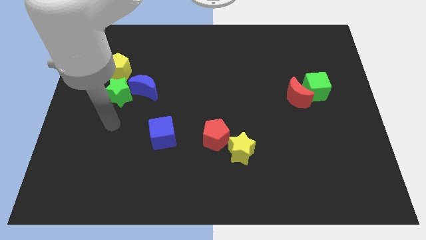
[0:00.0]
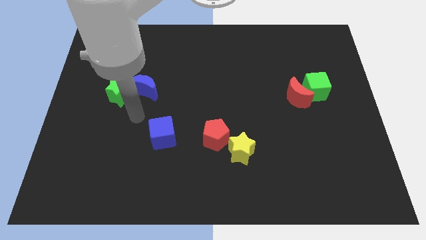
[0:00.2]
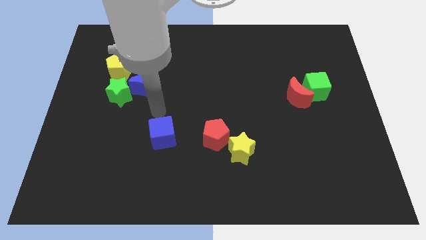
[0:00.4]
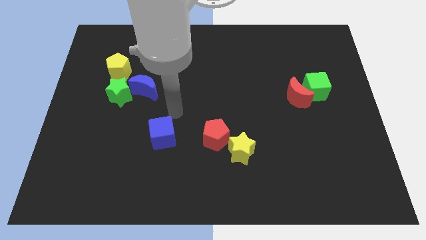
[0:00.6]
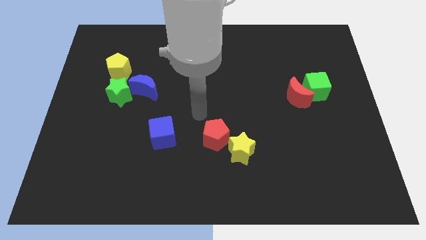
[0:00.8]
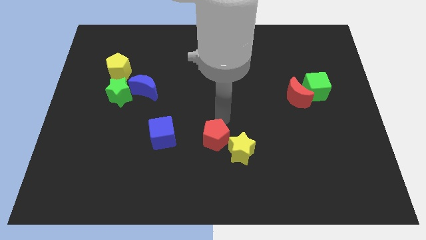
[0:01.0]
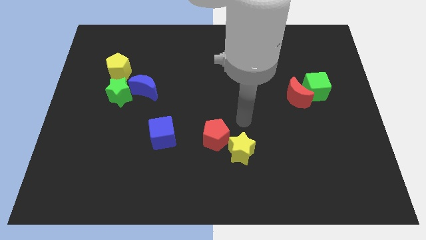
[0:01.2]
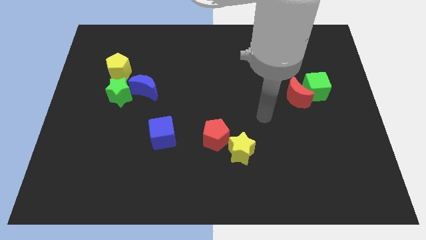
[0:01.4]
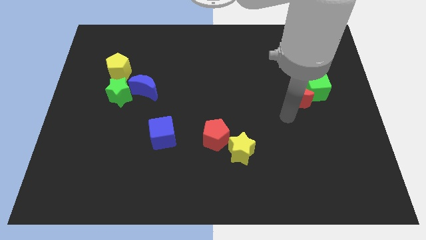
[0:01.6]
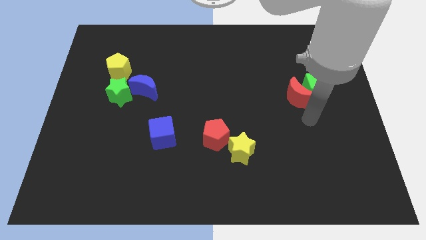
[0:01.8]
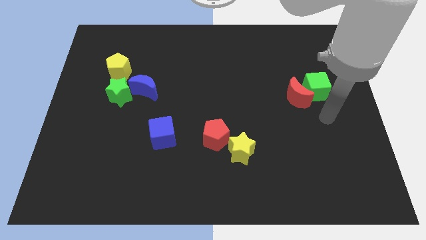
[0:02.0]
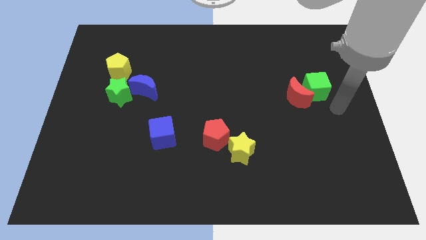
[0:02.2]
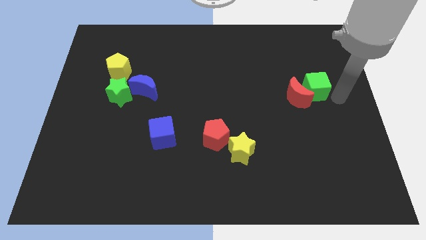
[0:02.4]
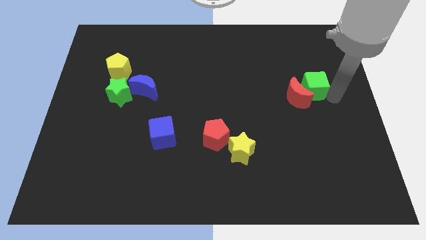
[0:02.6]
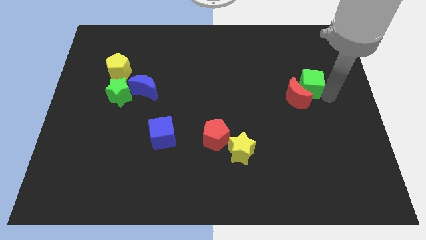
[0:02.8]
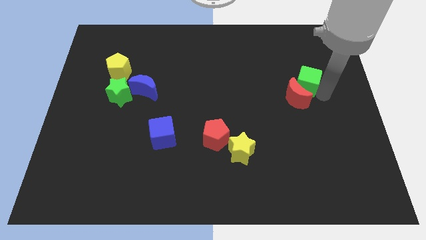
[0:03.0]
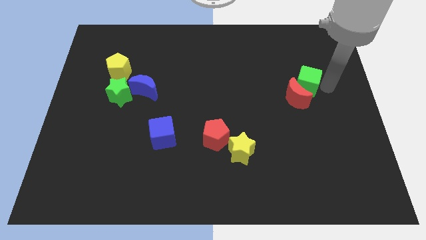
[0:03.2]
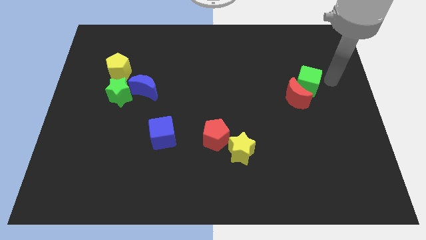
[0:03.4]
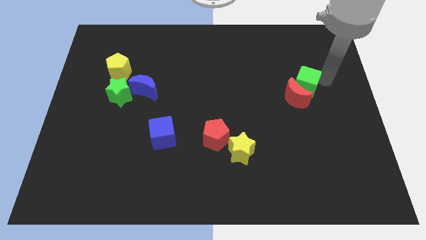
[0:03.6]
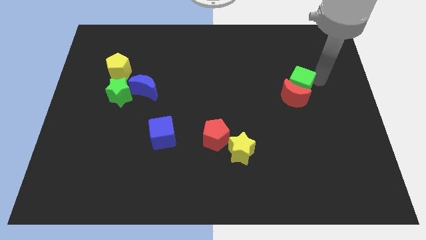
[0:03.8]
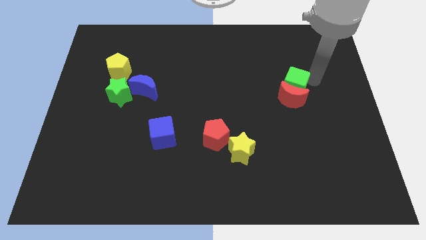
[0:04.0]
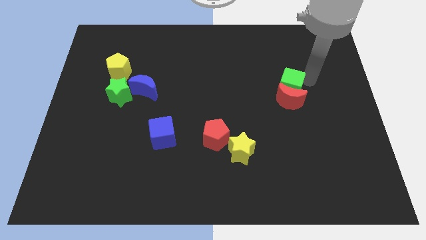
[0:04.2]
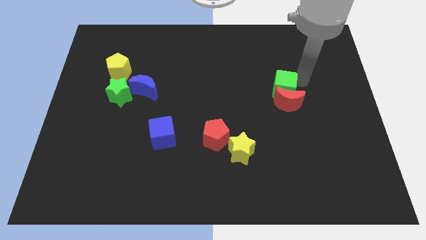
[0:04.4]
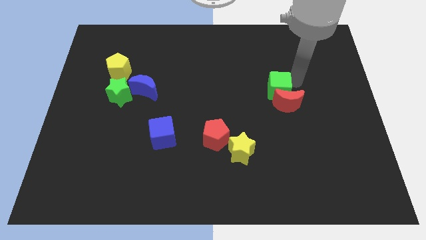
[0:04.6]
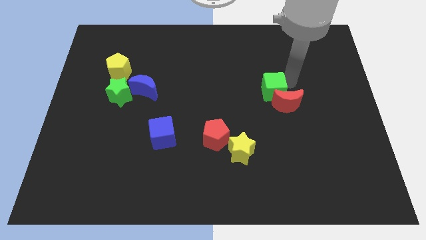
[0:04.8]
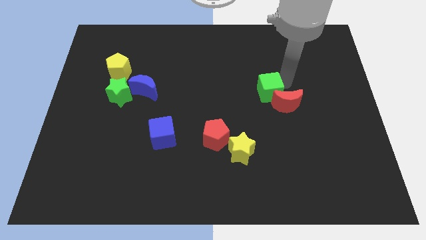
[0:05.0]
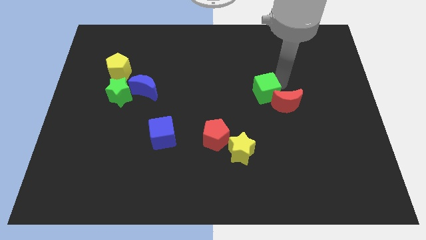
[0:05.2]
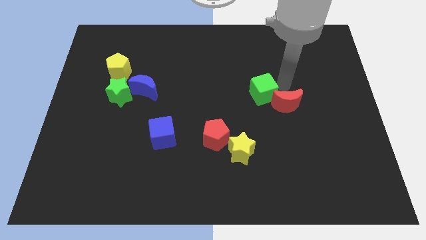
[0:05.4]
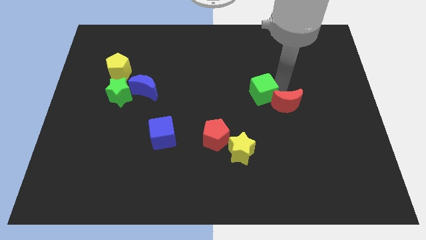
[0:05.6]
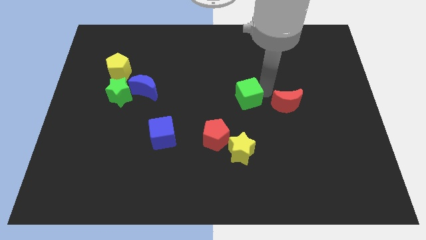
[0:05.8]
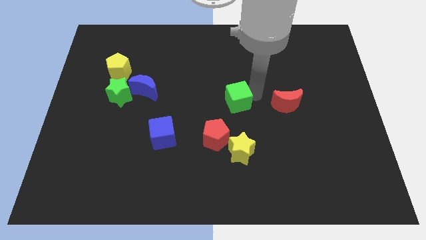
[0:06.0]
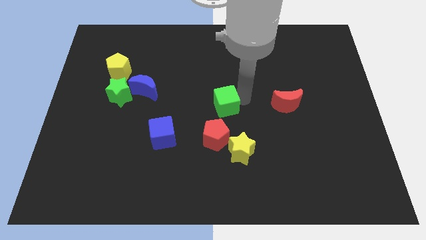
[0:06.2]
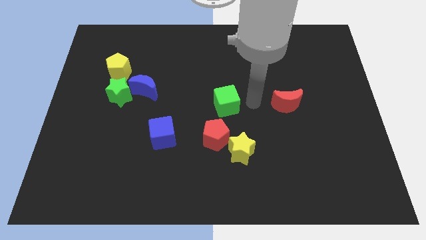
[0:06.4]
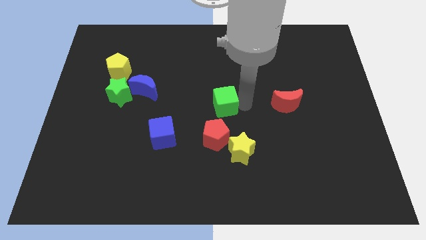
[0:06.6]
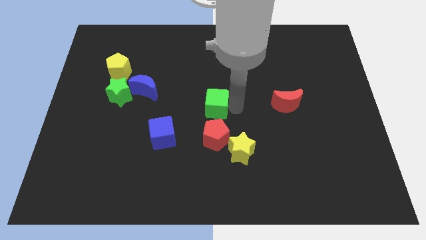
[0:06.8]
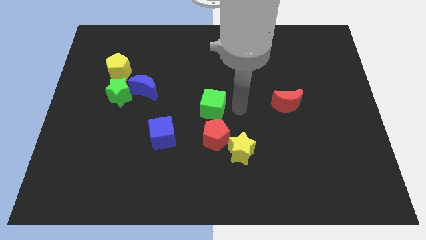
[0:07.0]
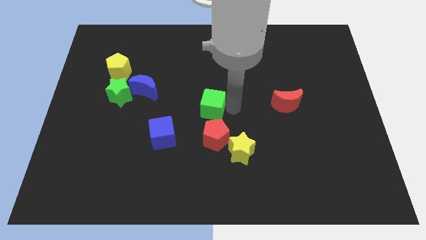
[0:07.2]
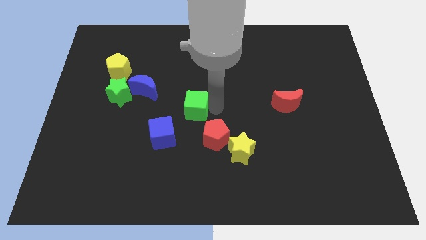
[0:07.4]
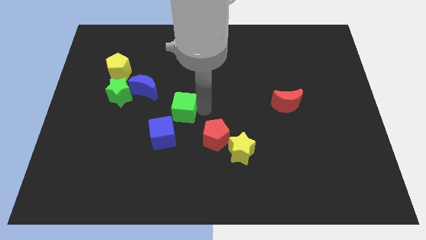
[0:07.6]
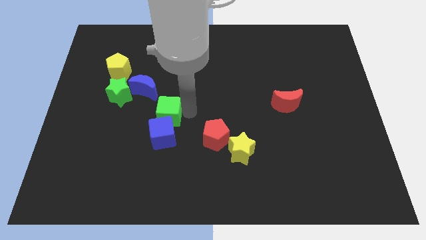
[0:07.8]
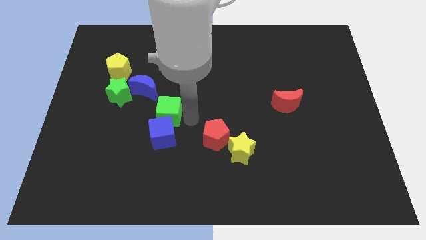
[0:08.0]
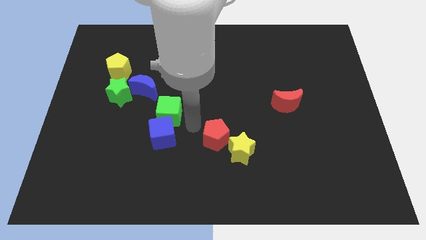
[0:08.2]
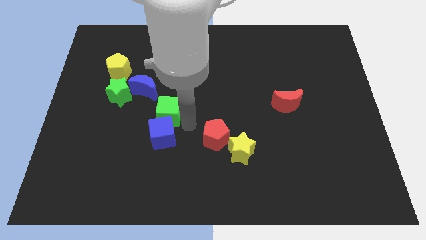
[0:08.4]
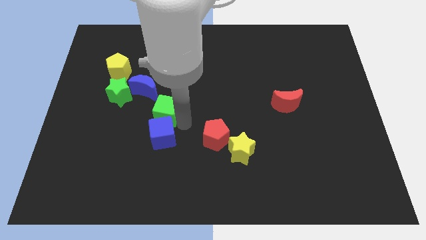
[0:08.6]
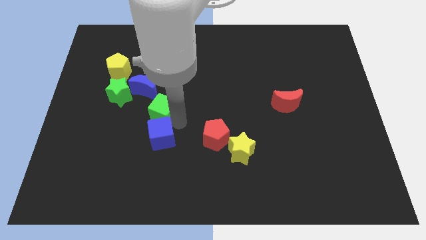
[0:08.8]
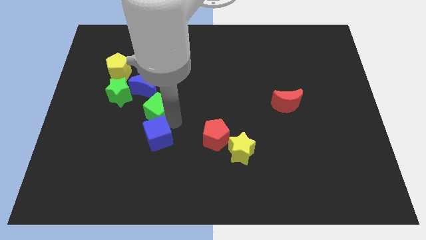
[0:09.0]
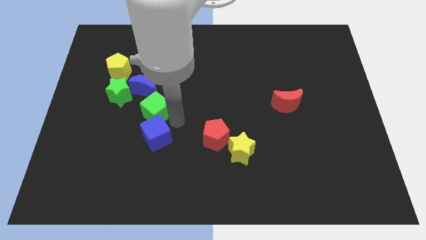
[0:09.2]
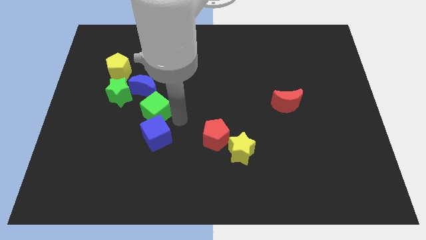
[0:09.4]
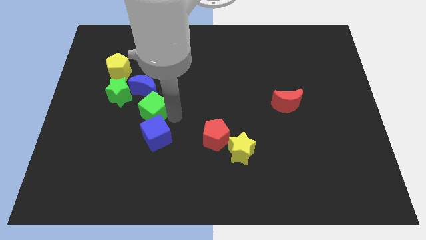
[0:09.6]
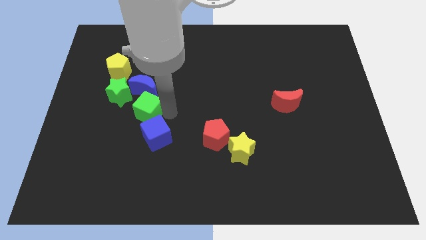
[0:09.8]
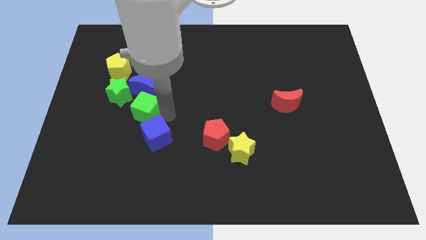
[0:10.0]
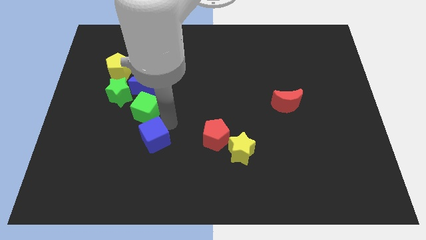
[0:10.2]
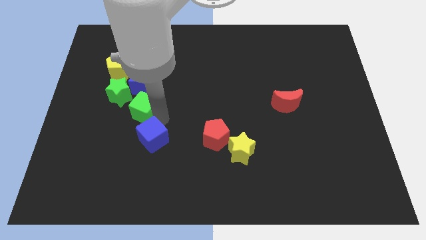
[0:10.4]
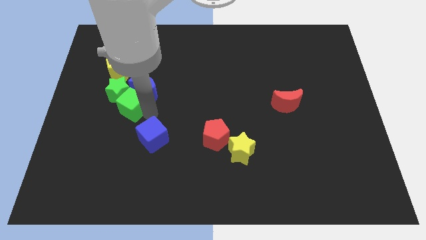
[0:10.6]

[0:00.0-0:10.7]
put the green cube close to the green star

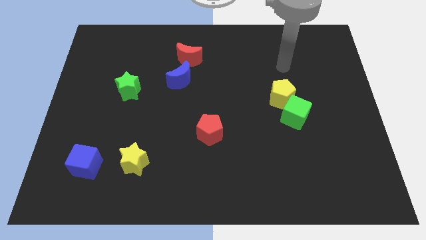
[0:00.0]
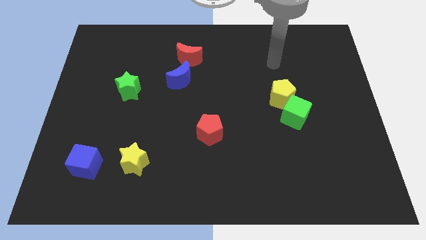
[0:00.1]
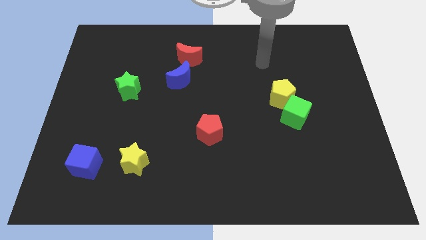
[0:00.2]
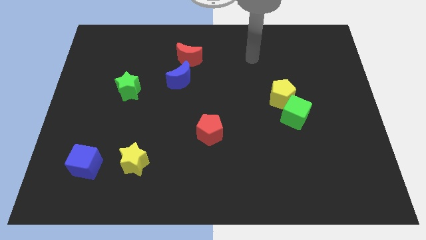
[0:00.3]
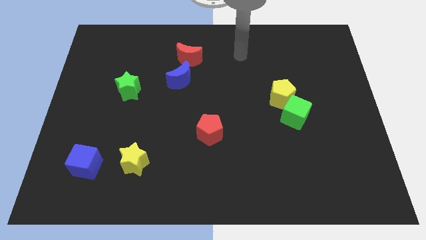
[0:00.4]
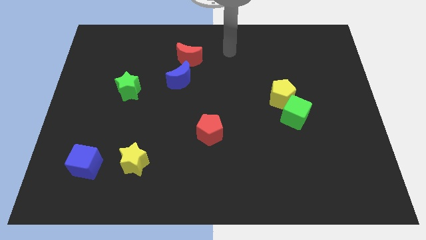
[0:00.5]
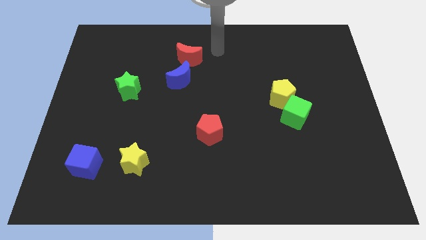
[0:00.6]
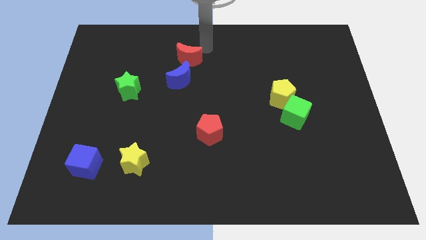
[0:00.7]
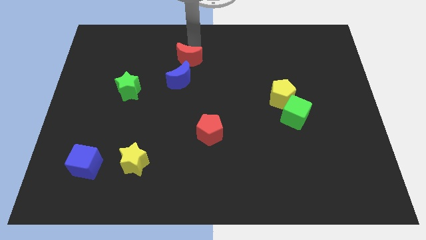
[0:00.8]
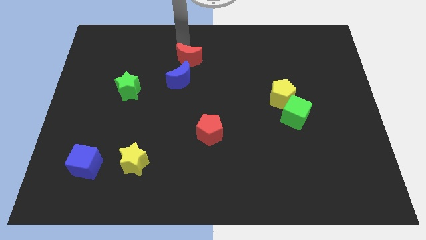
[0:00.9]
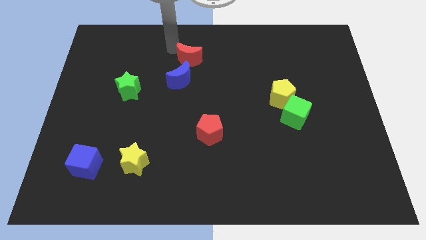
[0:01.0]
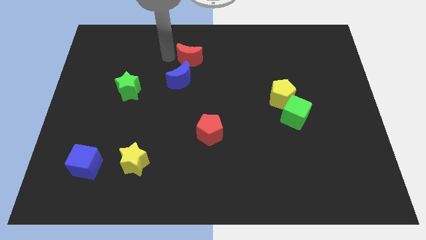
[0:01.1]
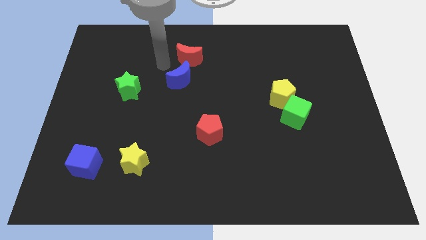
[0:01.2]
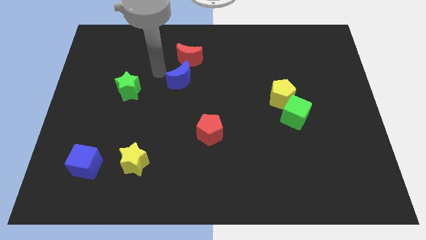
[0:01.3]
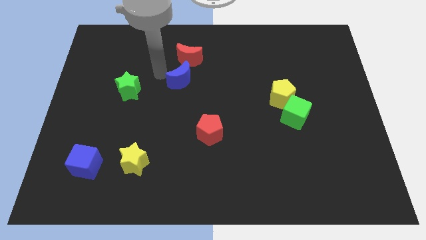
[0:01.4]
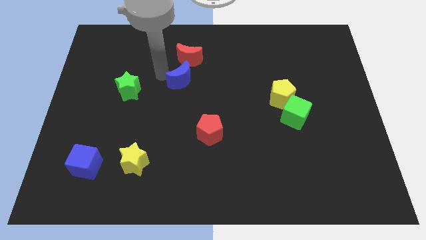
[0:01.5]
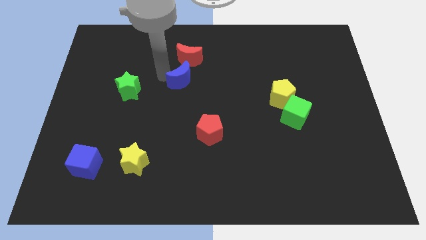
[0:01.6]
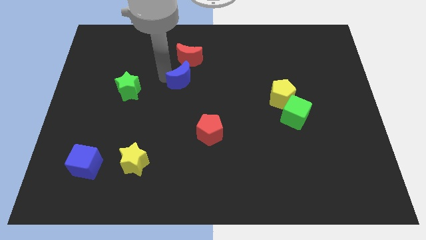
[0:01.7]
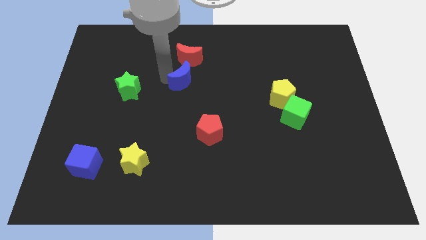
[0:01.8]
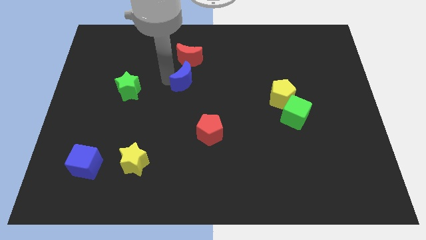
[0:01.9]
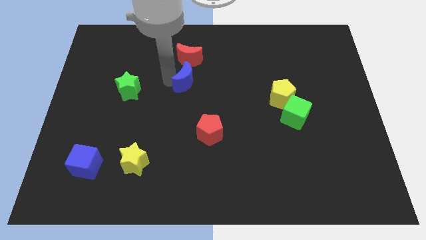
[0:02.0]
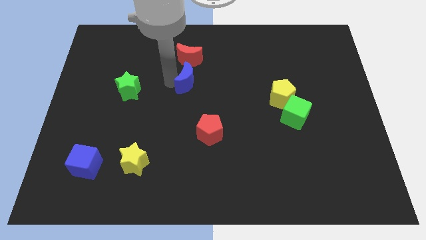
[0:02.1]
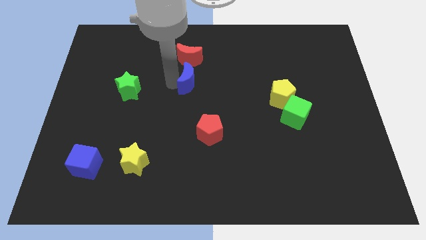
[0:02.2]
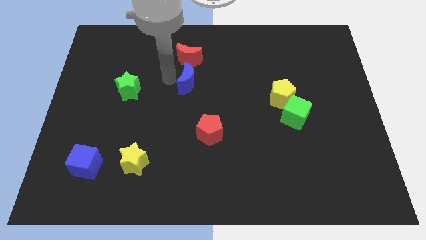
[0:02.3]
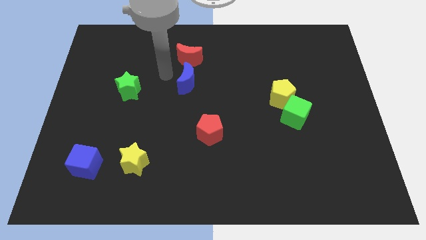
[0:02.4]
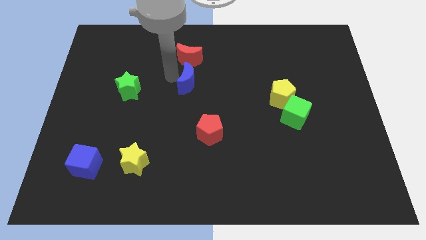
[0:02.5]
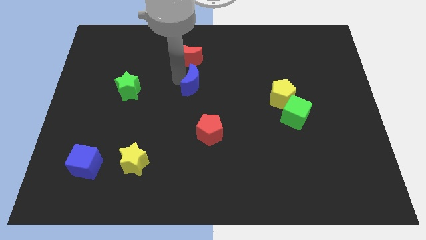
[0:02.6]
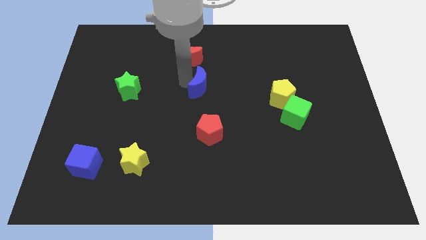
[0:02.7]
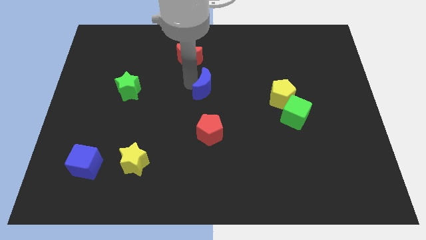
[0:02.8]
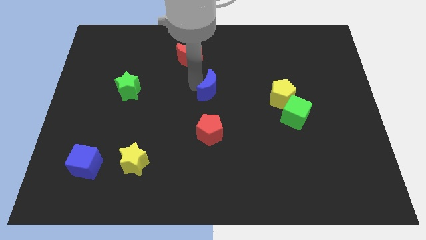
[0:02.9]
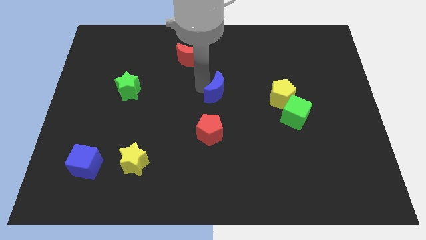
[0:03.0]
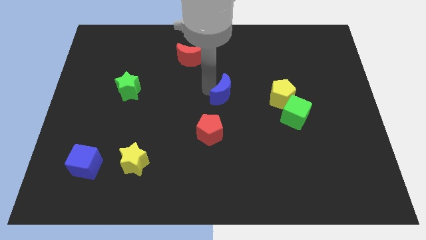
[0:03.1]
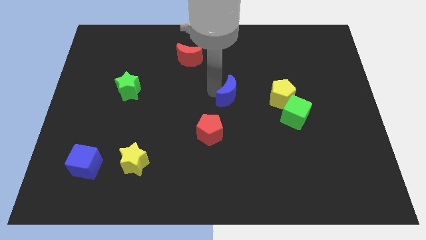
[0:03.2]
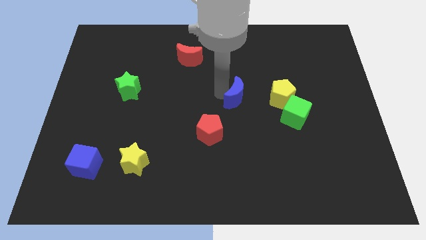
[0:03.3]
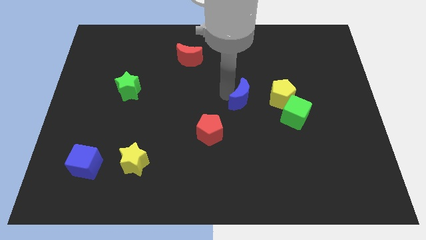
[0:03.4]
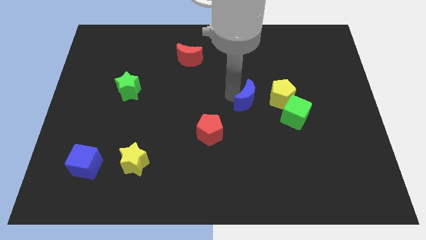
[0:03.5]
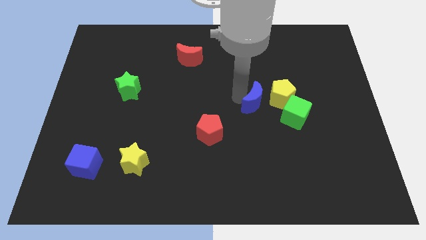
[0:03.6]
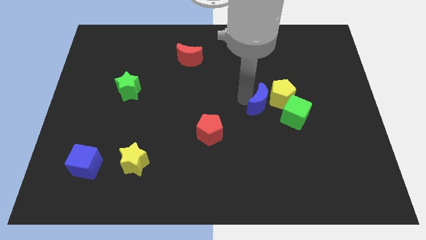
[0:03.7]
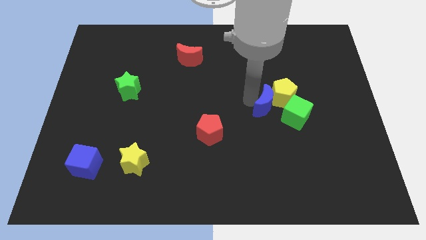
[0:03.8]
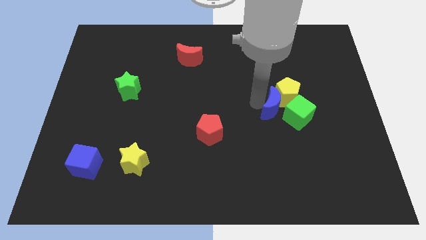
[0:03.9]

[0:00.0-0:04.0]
move the blue moon next to the green cube
